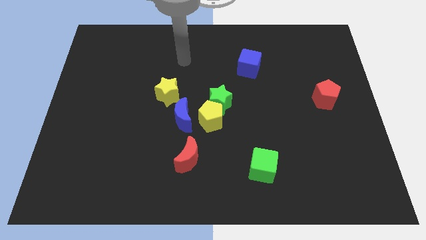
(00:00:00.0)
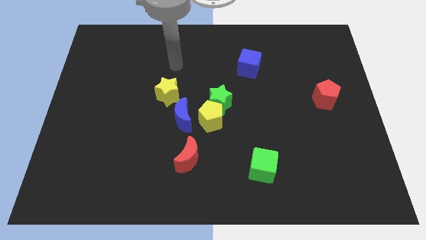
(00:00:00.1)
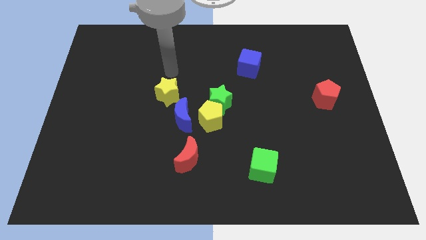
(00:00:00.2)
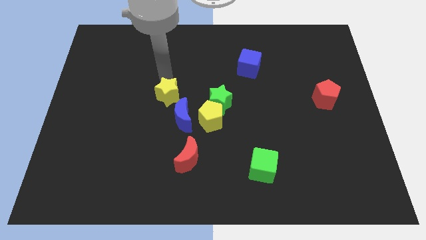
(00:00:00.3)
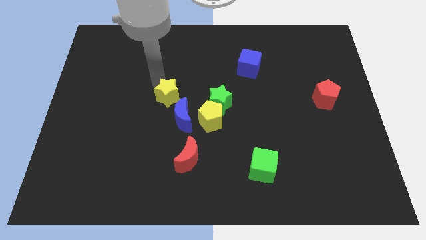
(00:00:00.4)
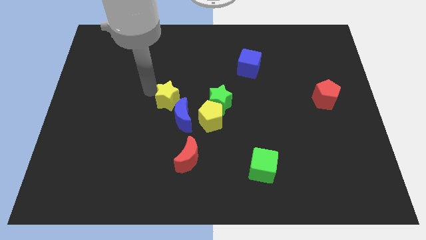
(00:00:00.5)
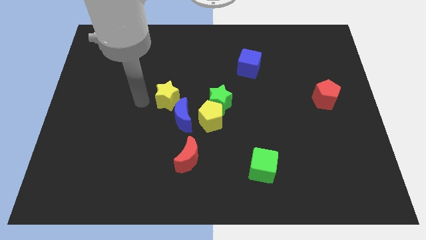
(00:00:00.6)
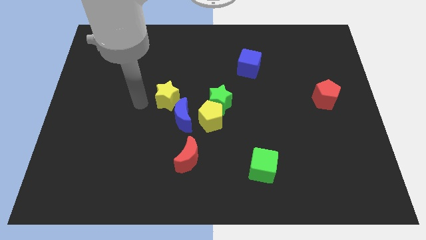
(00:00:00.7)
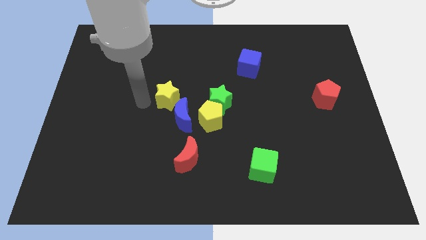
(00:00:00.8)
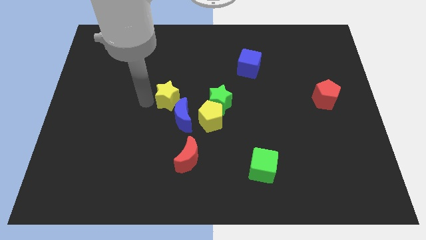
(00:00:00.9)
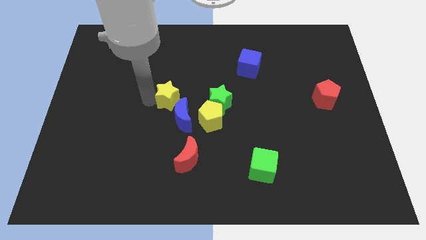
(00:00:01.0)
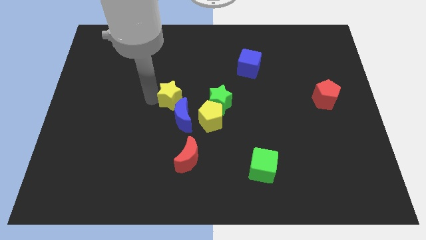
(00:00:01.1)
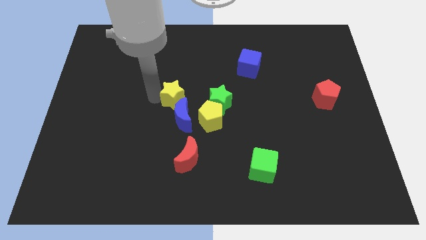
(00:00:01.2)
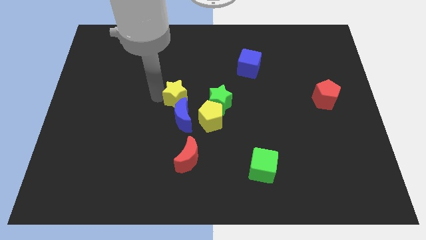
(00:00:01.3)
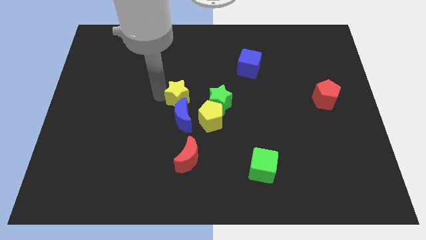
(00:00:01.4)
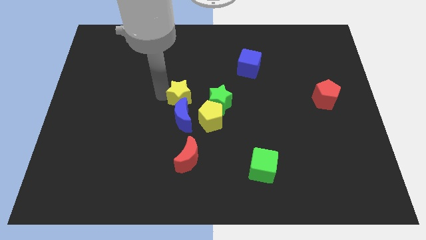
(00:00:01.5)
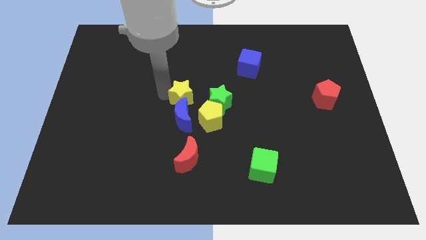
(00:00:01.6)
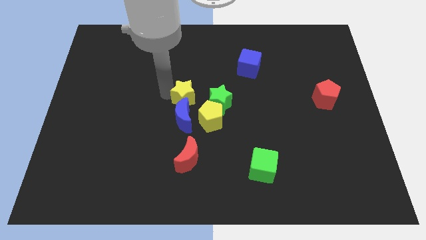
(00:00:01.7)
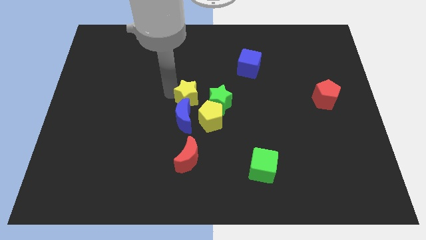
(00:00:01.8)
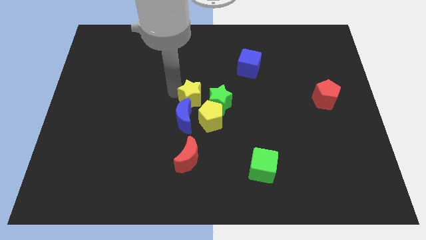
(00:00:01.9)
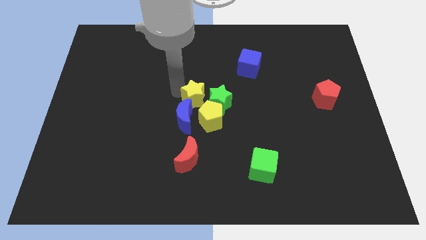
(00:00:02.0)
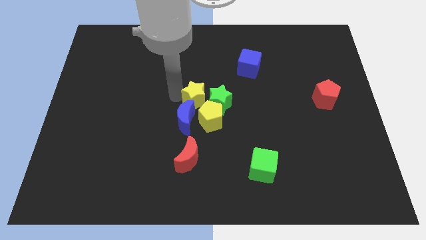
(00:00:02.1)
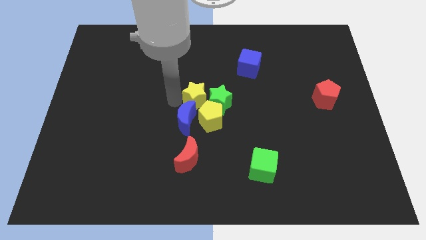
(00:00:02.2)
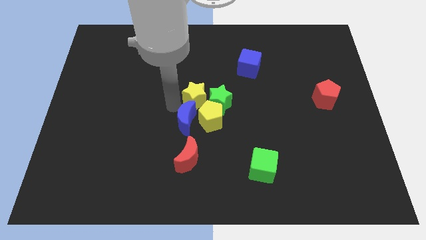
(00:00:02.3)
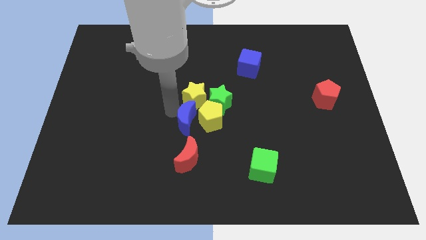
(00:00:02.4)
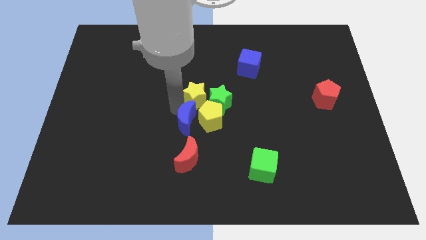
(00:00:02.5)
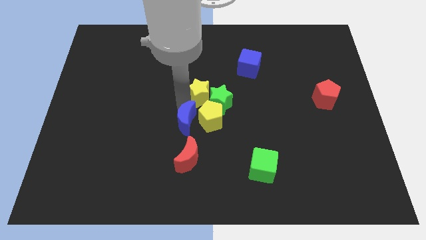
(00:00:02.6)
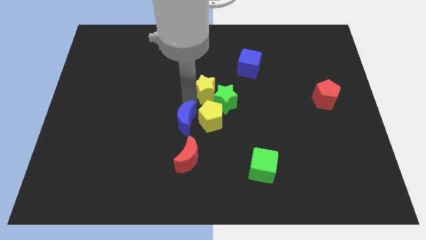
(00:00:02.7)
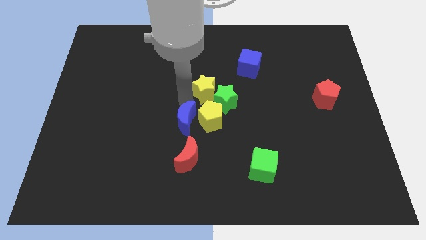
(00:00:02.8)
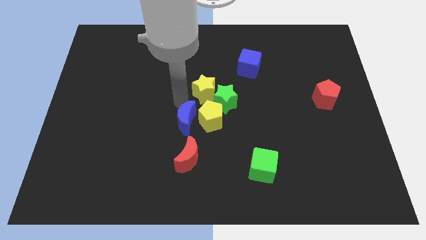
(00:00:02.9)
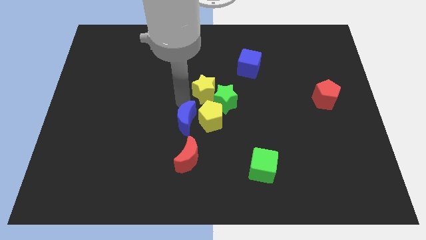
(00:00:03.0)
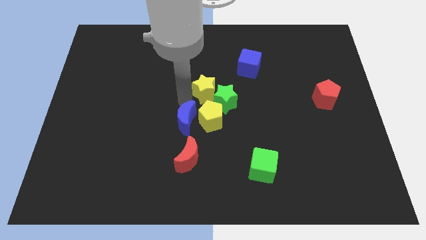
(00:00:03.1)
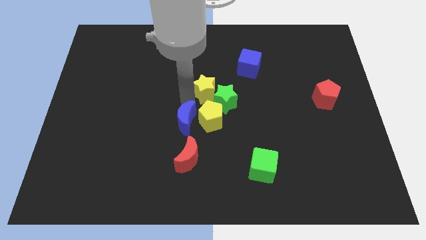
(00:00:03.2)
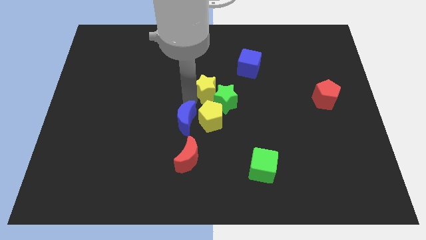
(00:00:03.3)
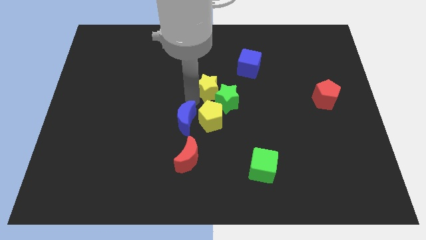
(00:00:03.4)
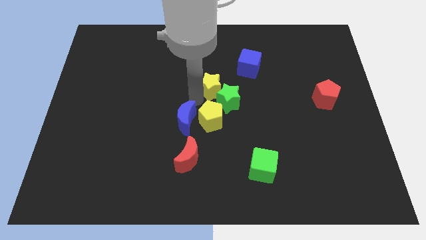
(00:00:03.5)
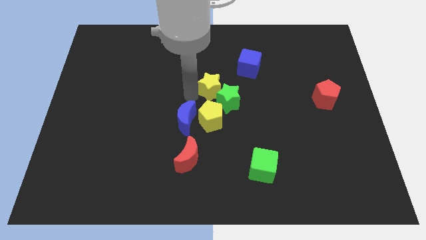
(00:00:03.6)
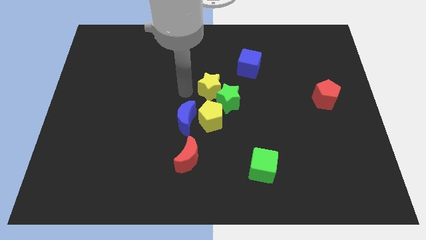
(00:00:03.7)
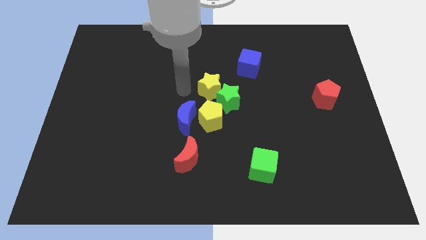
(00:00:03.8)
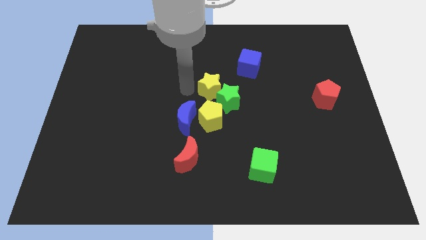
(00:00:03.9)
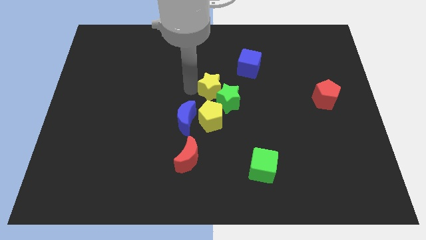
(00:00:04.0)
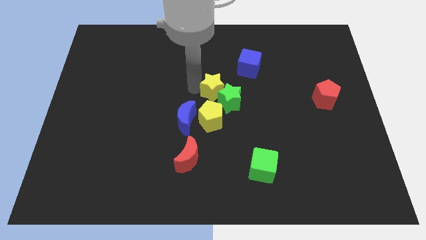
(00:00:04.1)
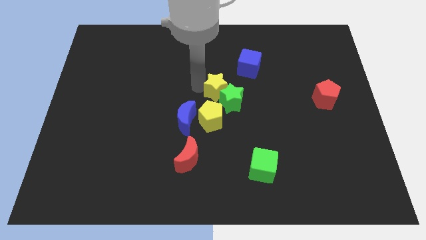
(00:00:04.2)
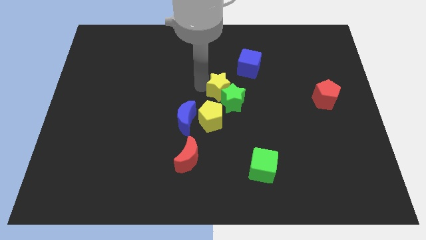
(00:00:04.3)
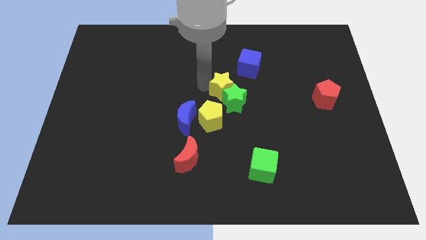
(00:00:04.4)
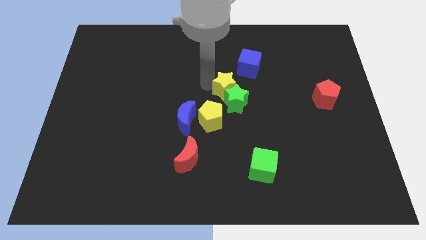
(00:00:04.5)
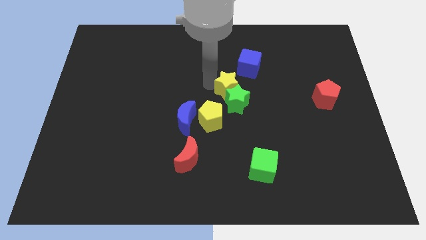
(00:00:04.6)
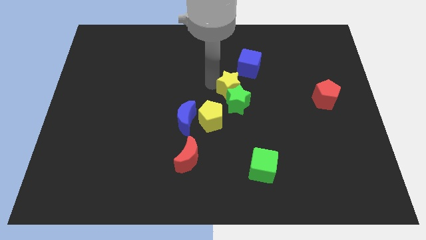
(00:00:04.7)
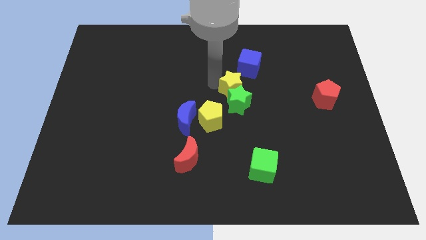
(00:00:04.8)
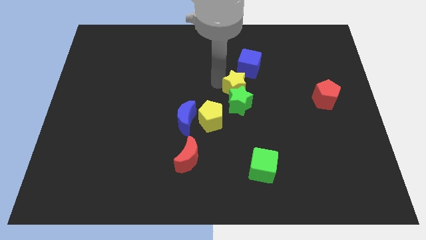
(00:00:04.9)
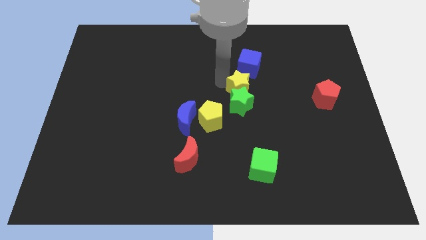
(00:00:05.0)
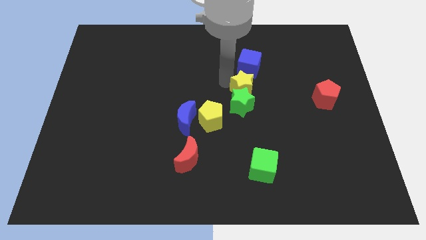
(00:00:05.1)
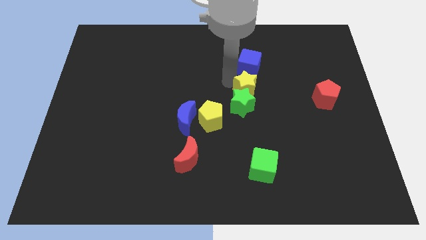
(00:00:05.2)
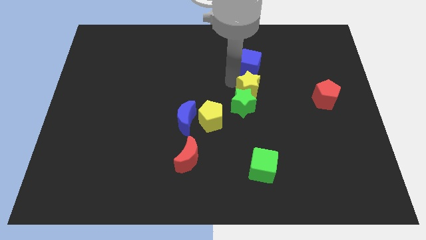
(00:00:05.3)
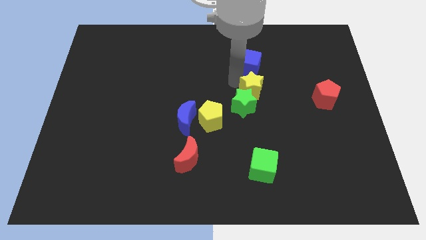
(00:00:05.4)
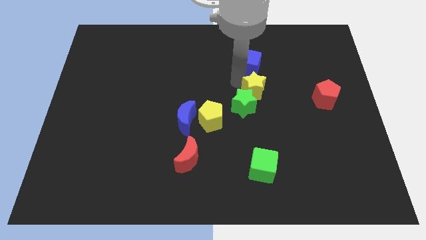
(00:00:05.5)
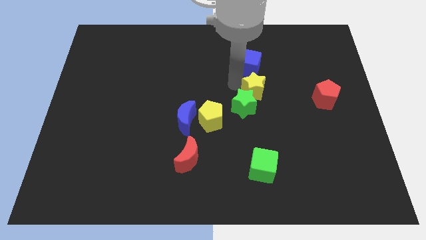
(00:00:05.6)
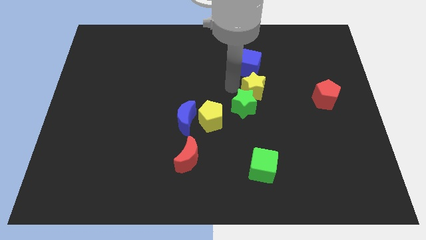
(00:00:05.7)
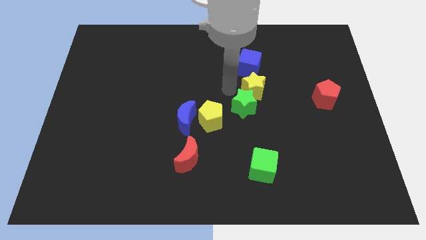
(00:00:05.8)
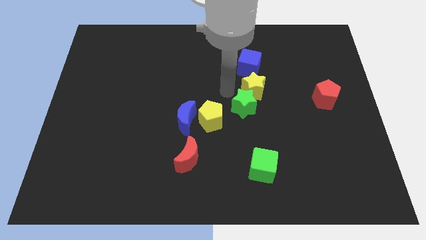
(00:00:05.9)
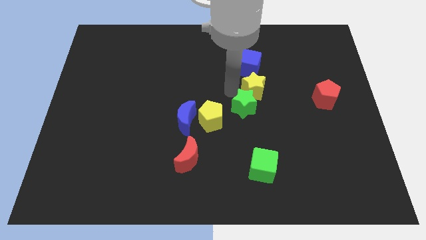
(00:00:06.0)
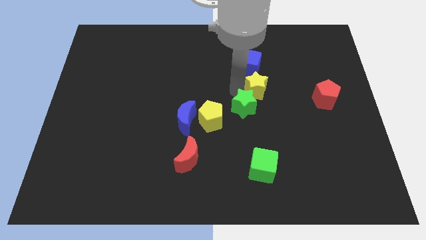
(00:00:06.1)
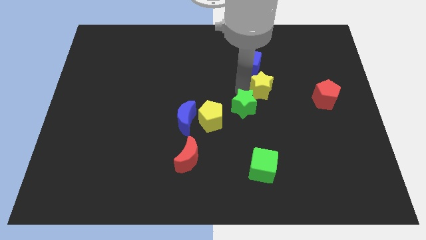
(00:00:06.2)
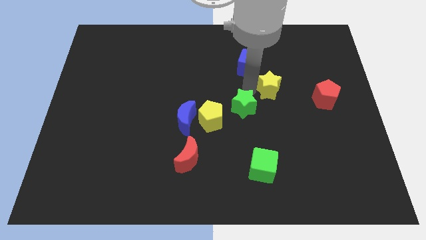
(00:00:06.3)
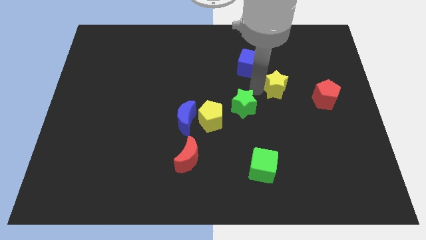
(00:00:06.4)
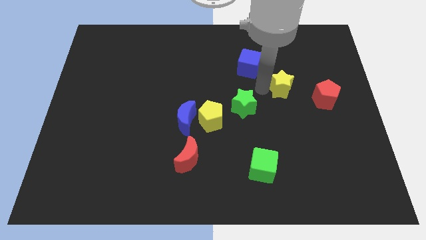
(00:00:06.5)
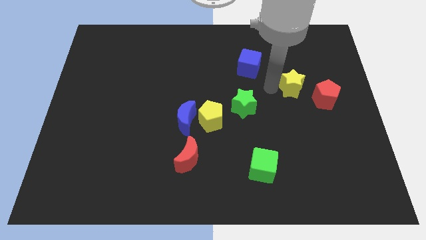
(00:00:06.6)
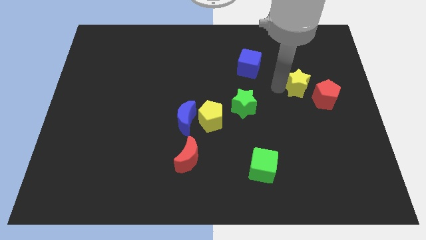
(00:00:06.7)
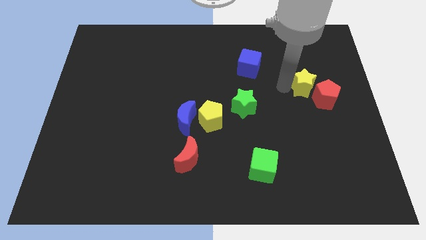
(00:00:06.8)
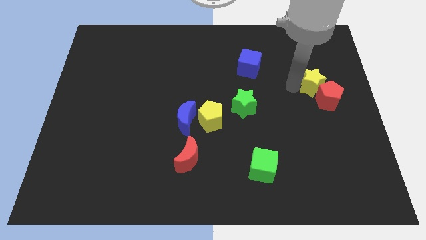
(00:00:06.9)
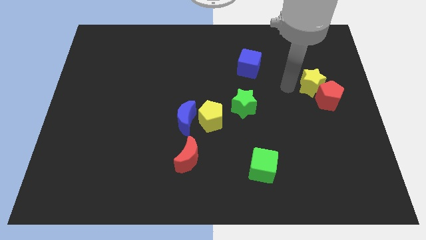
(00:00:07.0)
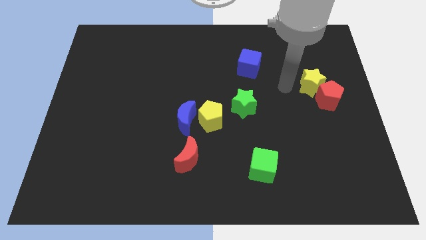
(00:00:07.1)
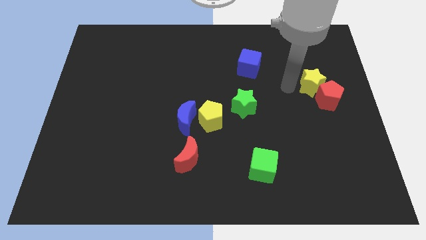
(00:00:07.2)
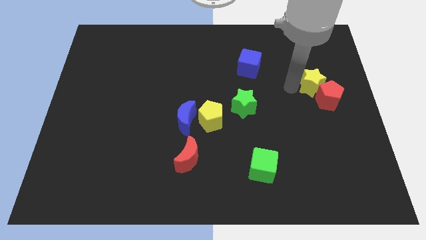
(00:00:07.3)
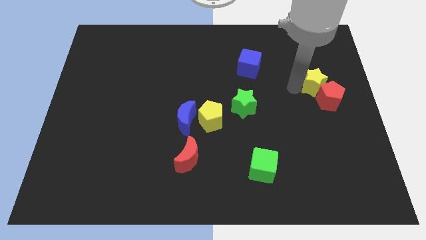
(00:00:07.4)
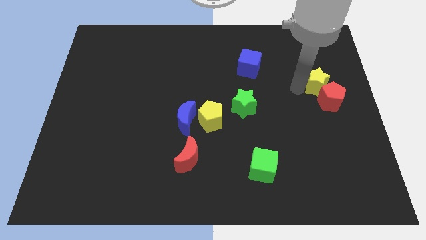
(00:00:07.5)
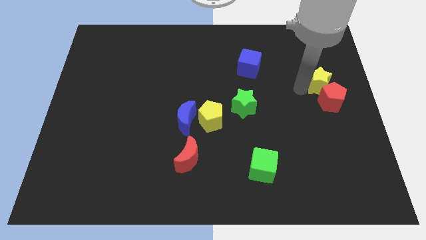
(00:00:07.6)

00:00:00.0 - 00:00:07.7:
push the yellow star to the right side of the board
